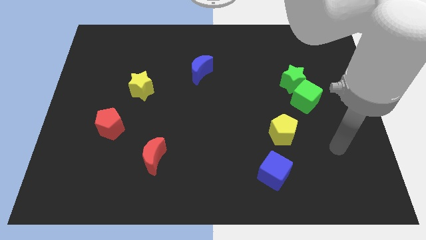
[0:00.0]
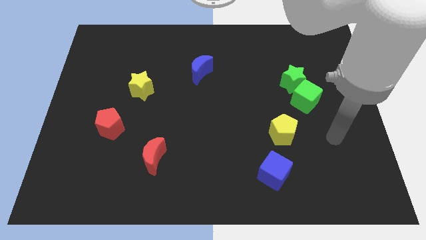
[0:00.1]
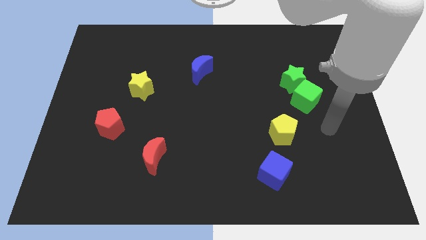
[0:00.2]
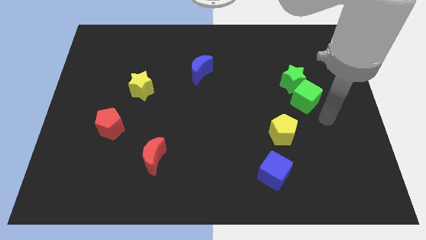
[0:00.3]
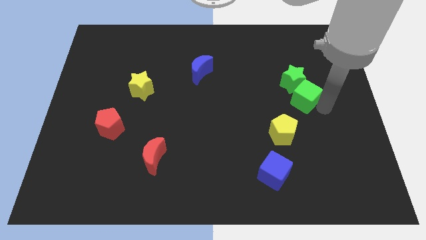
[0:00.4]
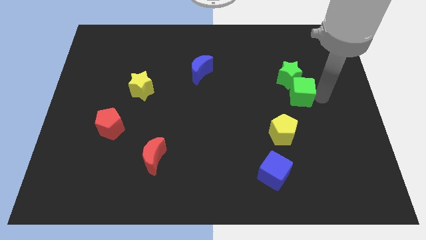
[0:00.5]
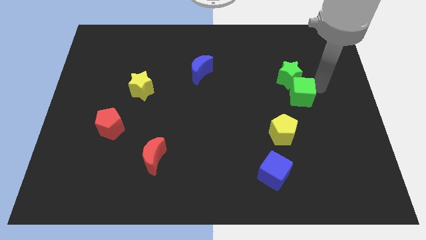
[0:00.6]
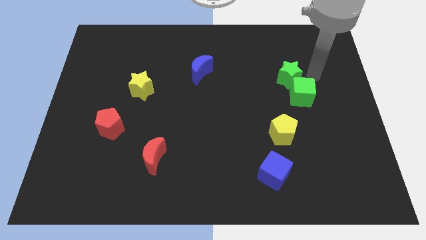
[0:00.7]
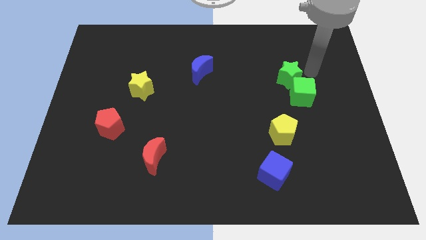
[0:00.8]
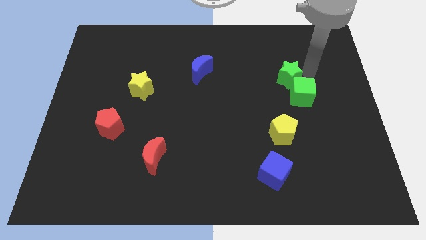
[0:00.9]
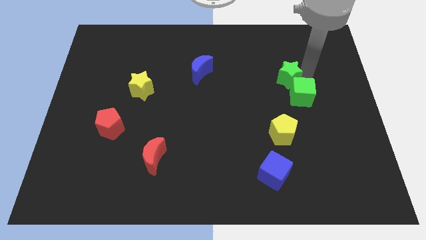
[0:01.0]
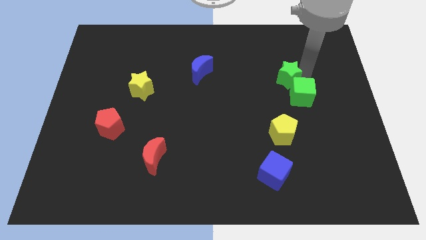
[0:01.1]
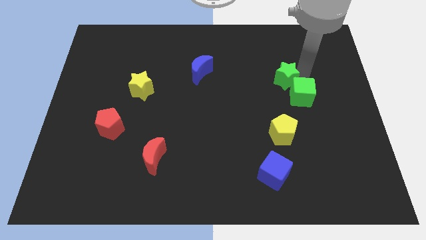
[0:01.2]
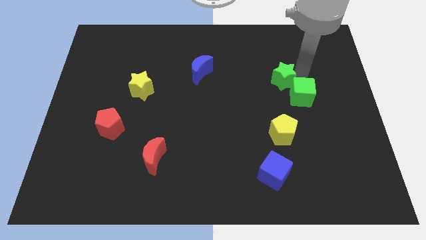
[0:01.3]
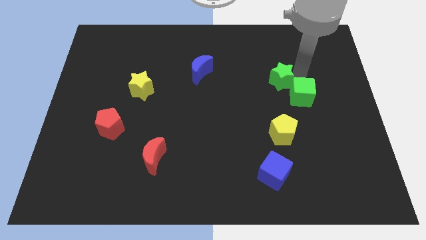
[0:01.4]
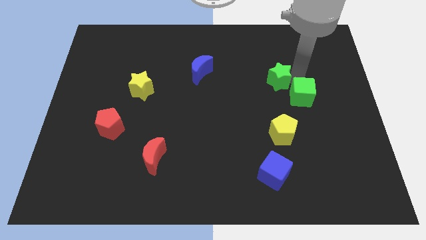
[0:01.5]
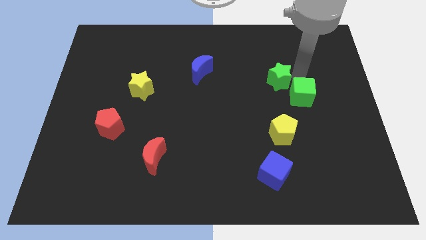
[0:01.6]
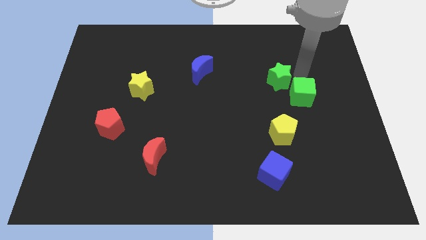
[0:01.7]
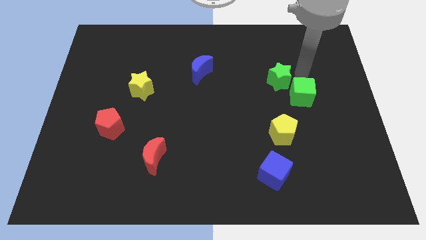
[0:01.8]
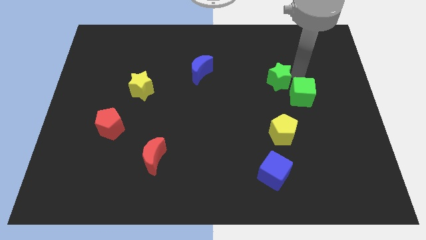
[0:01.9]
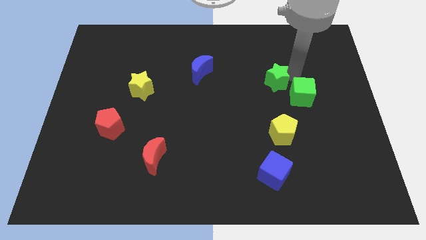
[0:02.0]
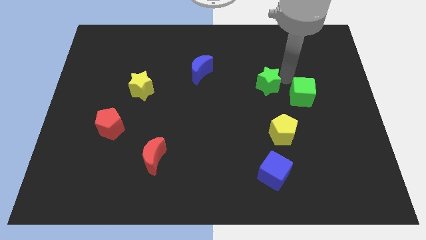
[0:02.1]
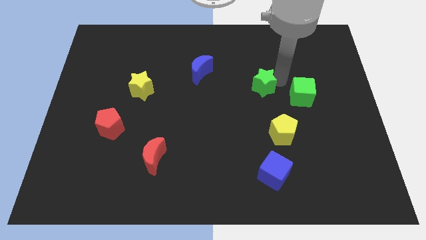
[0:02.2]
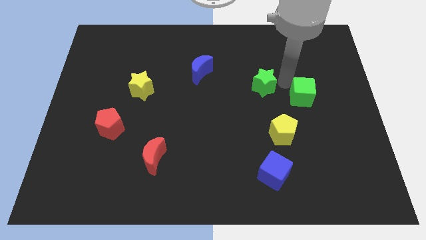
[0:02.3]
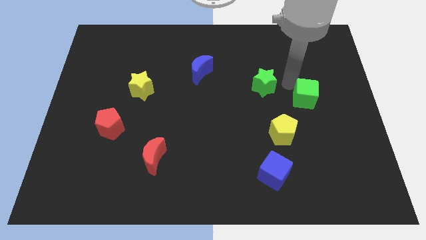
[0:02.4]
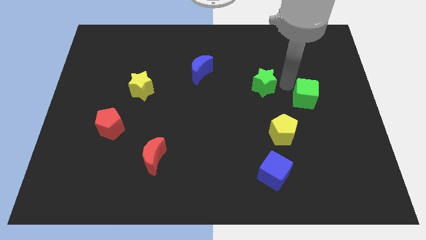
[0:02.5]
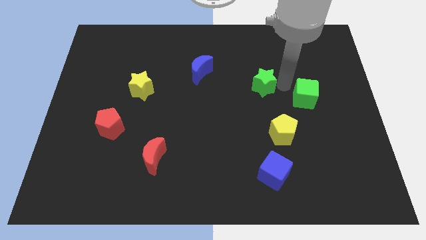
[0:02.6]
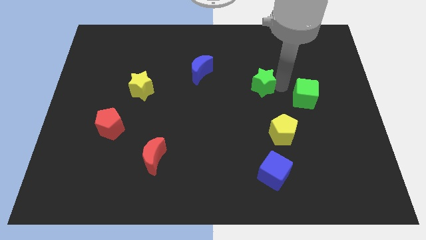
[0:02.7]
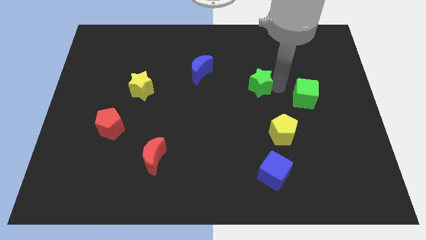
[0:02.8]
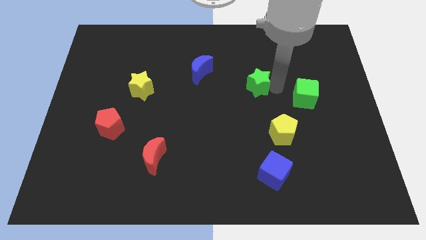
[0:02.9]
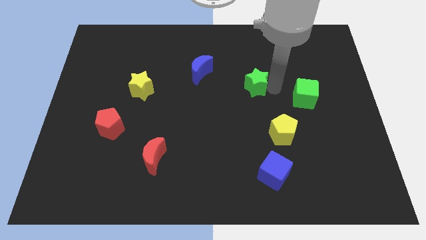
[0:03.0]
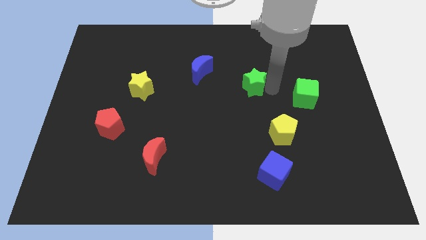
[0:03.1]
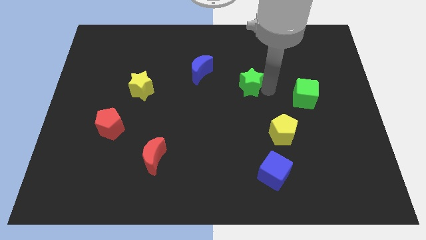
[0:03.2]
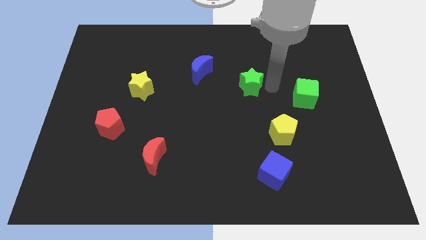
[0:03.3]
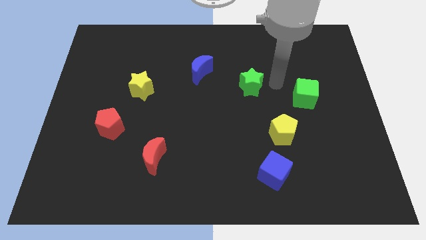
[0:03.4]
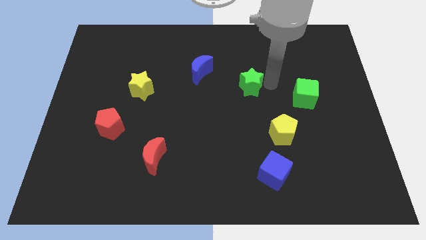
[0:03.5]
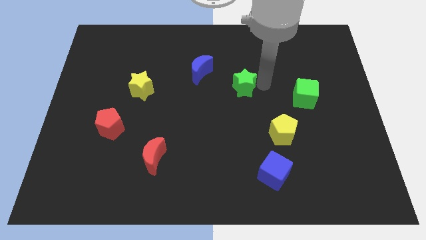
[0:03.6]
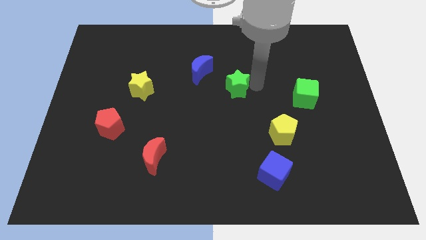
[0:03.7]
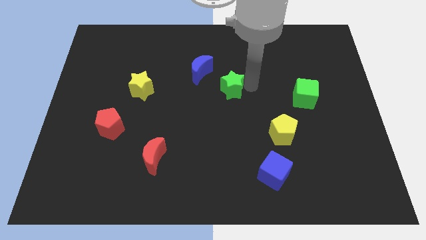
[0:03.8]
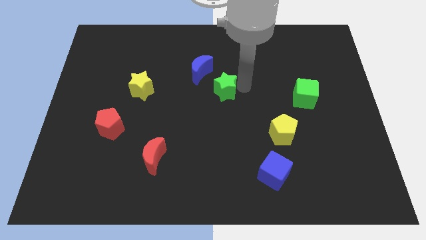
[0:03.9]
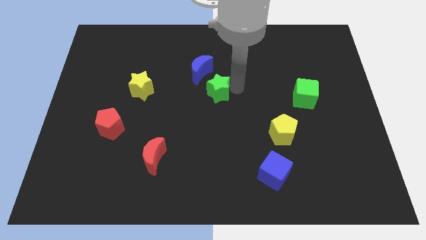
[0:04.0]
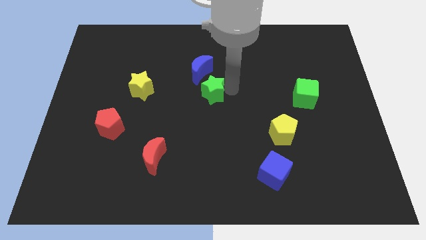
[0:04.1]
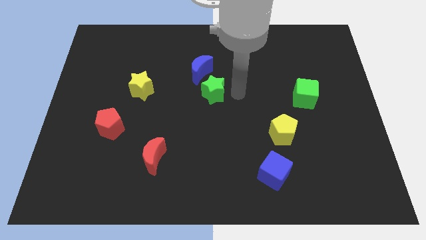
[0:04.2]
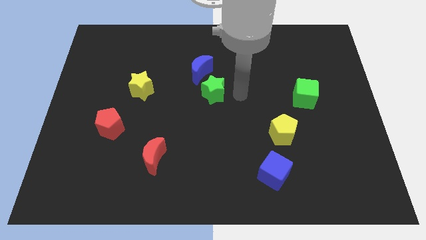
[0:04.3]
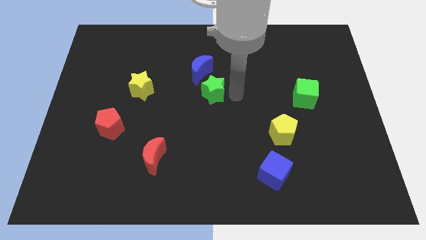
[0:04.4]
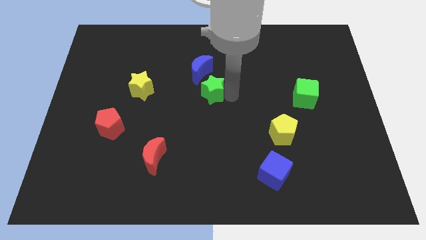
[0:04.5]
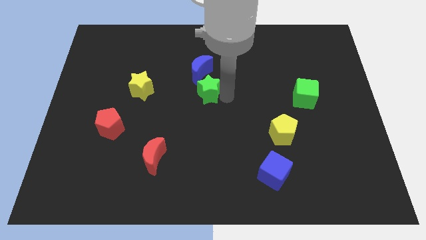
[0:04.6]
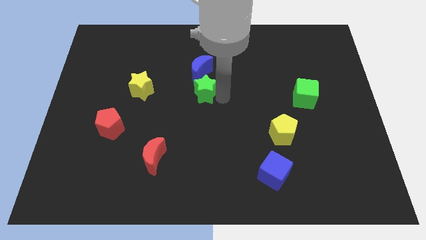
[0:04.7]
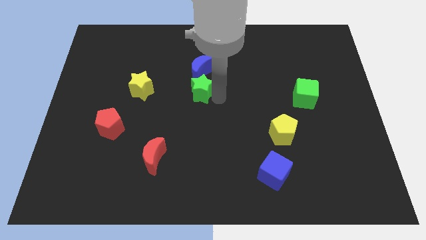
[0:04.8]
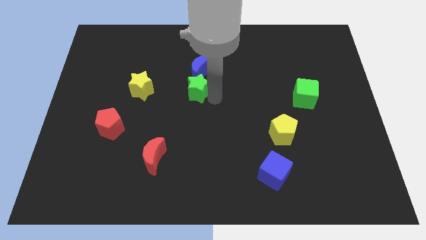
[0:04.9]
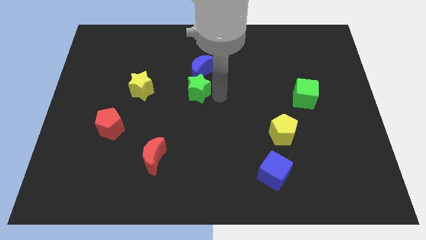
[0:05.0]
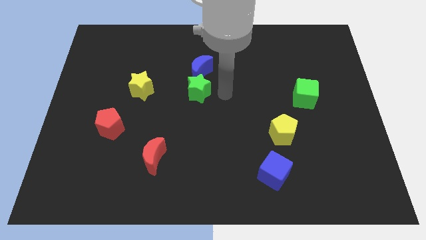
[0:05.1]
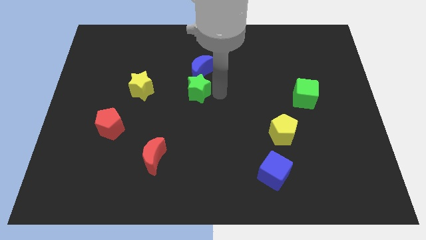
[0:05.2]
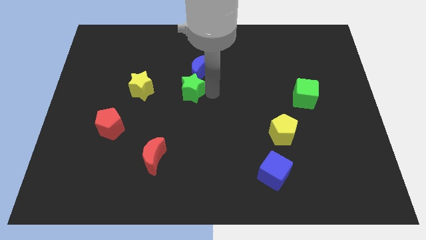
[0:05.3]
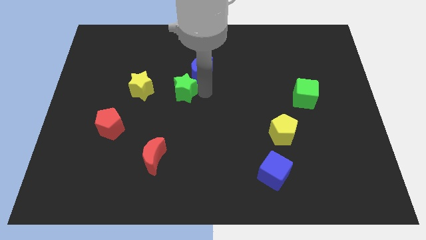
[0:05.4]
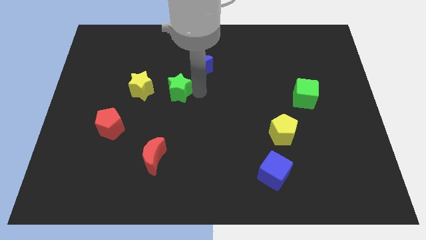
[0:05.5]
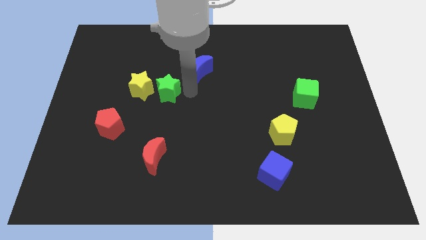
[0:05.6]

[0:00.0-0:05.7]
put the green star close to the yellow star
